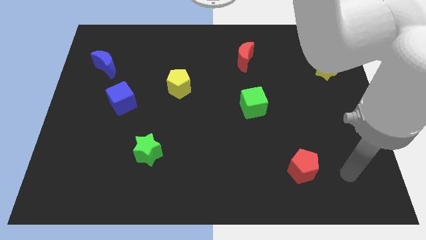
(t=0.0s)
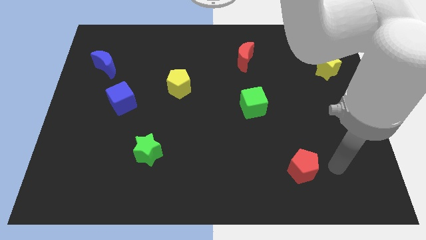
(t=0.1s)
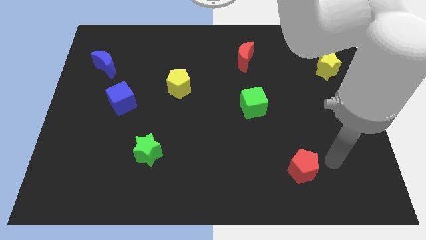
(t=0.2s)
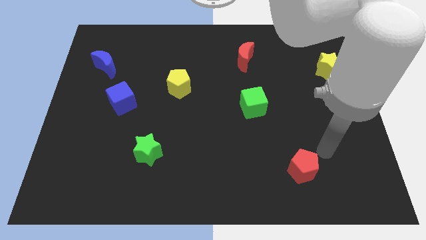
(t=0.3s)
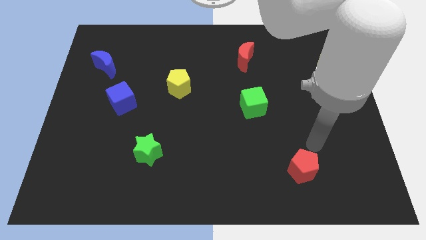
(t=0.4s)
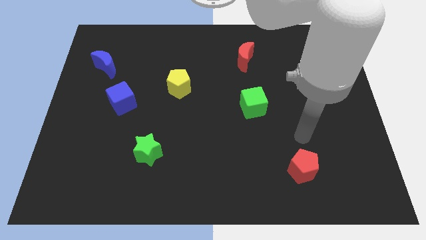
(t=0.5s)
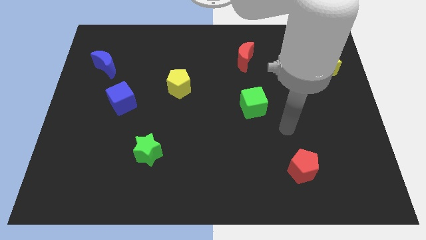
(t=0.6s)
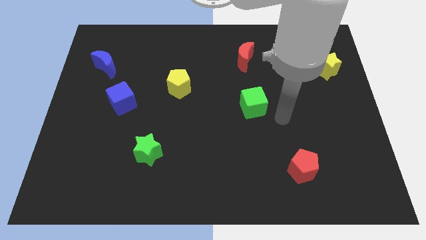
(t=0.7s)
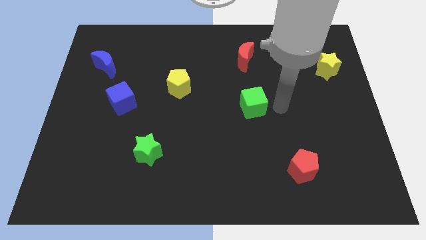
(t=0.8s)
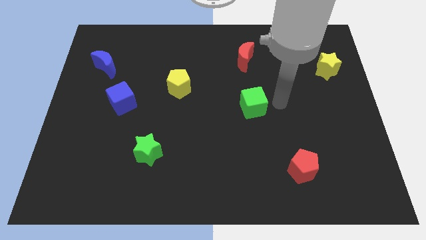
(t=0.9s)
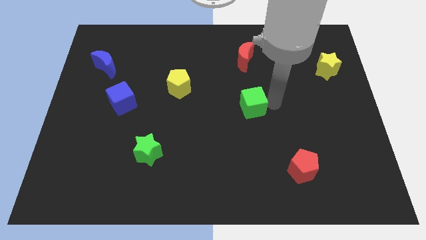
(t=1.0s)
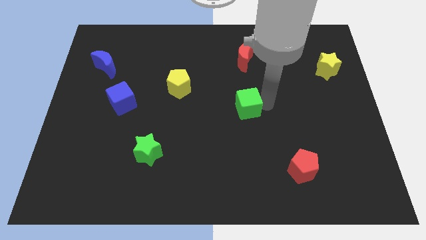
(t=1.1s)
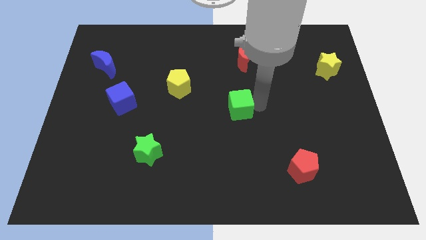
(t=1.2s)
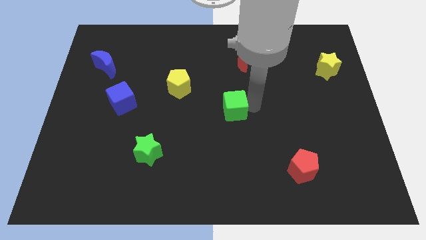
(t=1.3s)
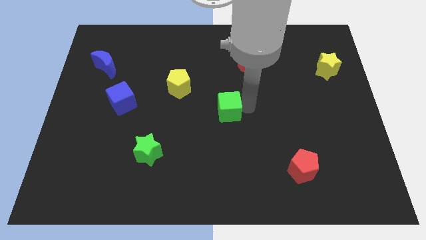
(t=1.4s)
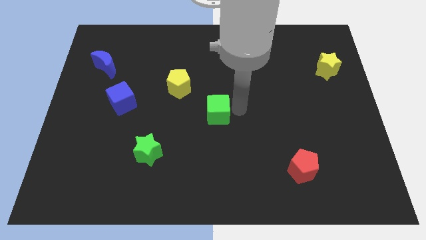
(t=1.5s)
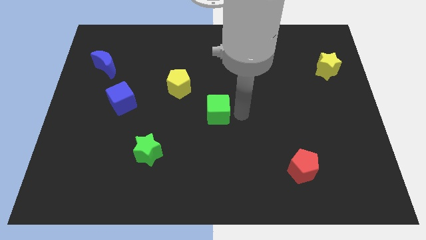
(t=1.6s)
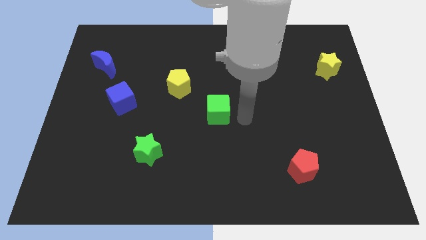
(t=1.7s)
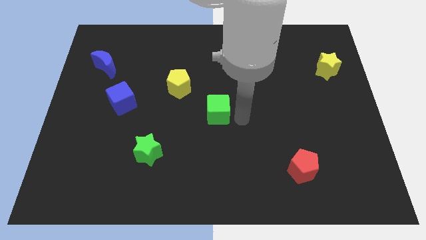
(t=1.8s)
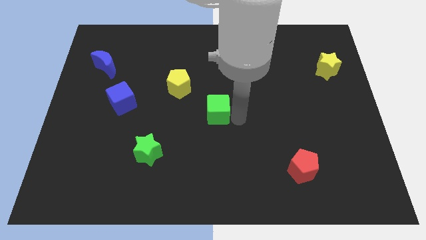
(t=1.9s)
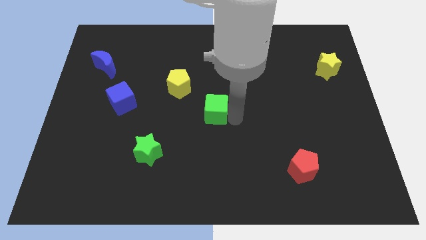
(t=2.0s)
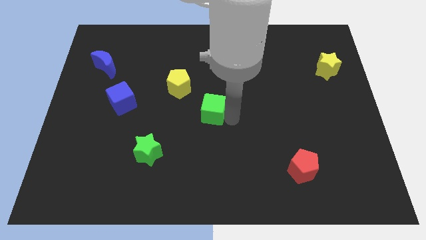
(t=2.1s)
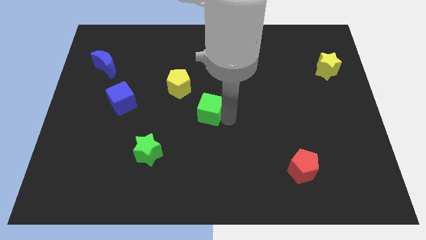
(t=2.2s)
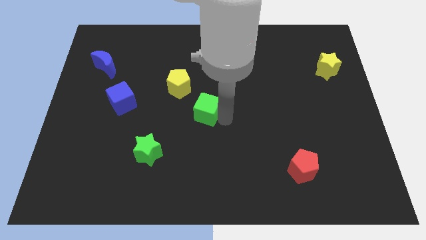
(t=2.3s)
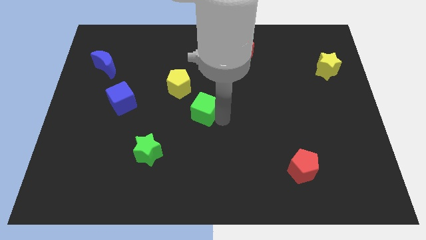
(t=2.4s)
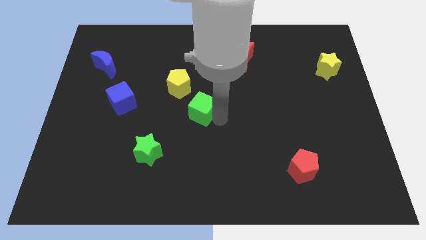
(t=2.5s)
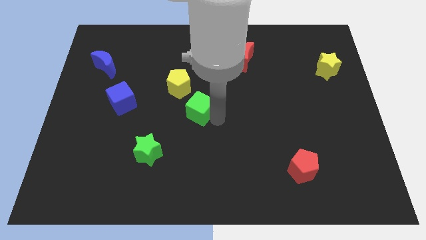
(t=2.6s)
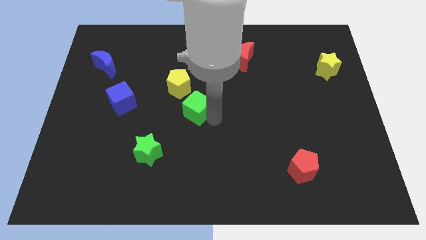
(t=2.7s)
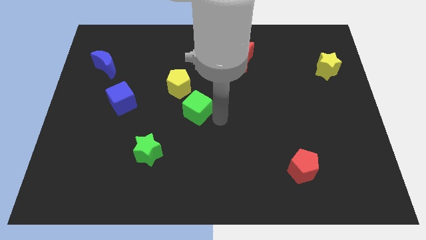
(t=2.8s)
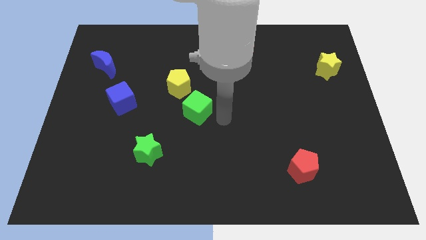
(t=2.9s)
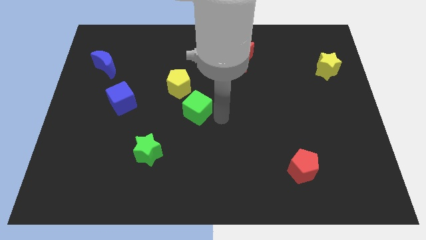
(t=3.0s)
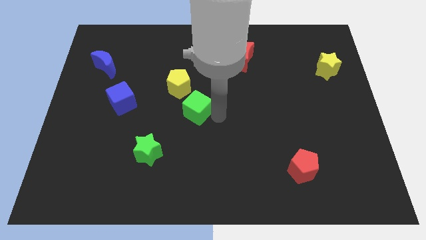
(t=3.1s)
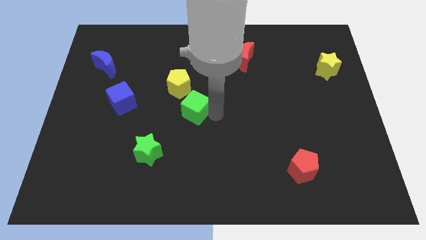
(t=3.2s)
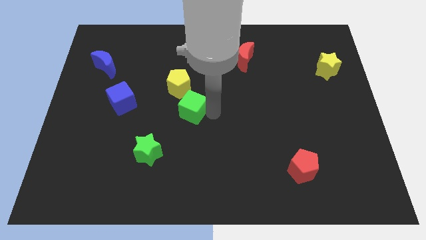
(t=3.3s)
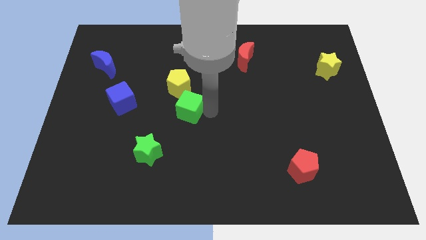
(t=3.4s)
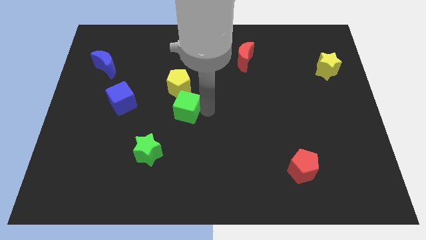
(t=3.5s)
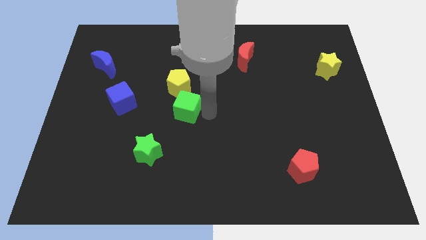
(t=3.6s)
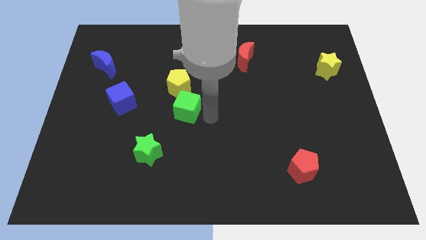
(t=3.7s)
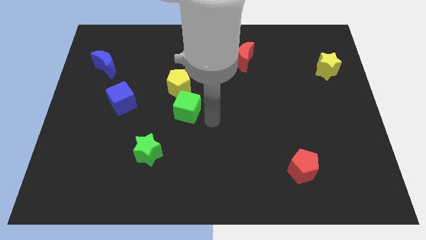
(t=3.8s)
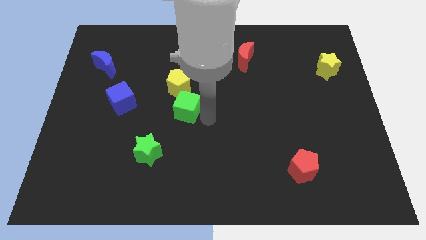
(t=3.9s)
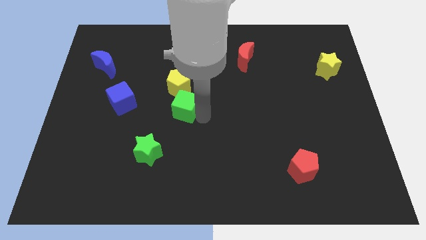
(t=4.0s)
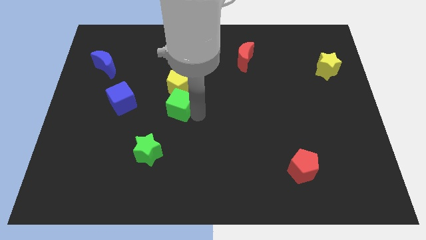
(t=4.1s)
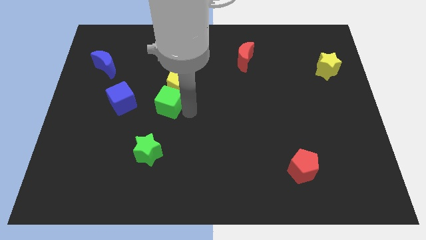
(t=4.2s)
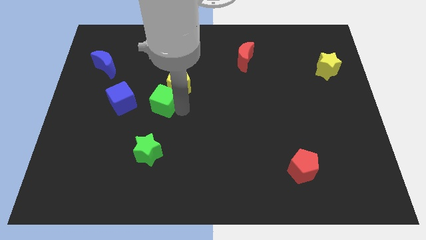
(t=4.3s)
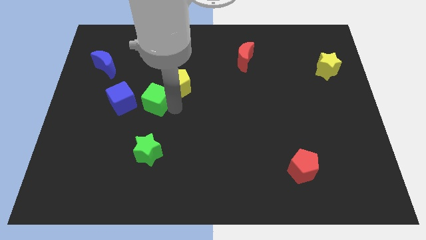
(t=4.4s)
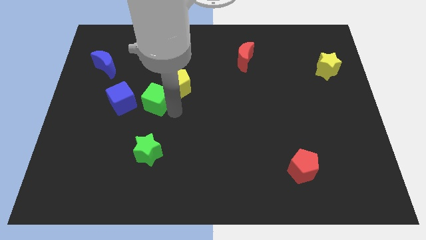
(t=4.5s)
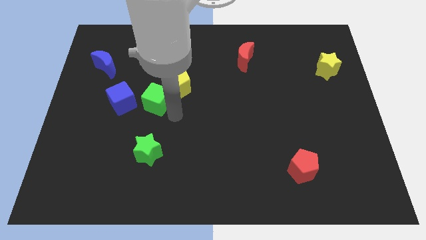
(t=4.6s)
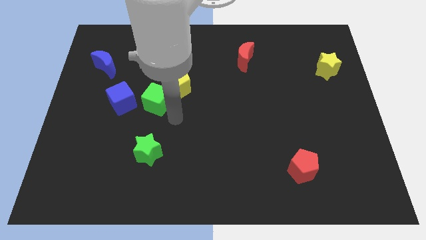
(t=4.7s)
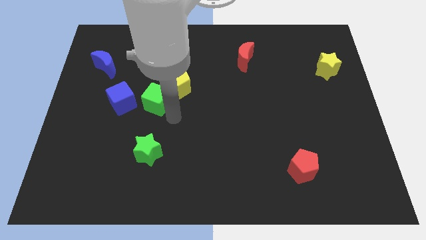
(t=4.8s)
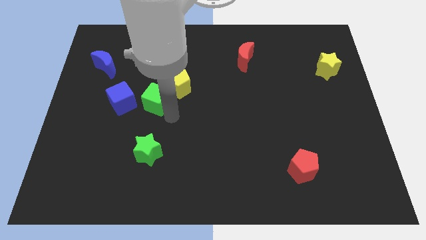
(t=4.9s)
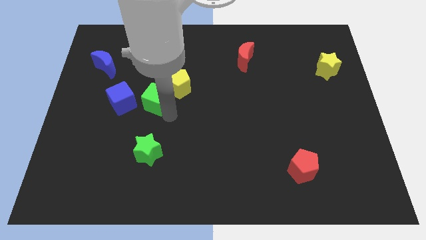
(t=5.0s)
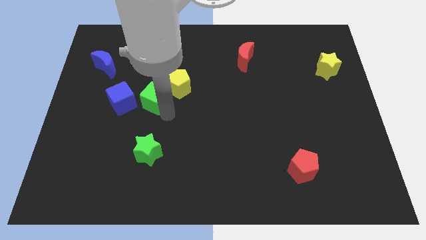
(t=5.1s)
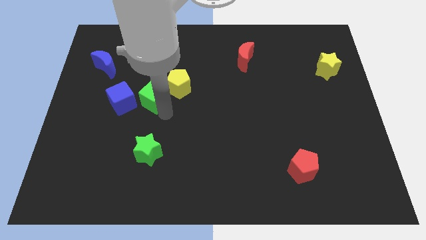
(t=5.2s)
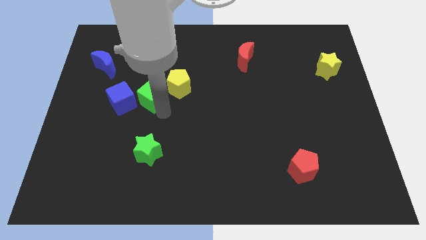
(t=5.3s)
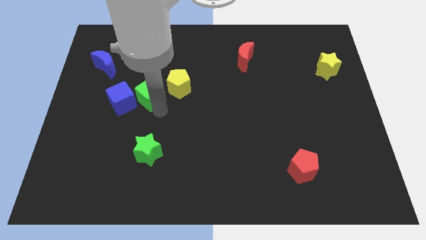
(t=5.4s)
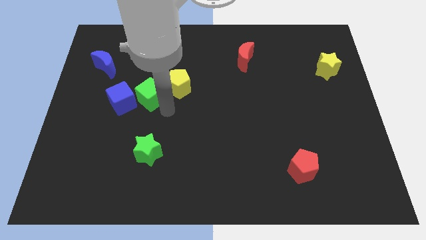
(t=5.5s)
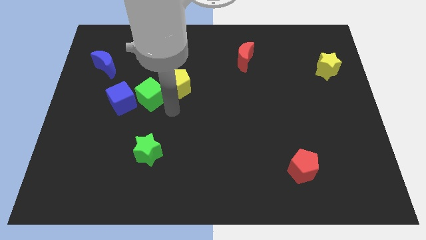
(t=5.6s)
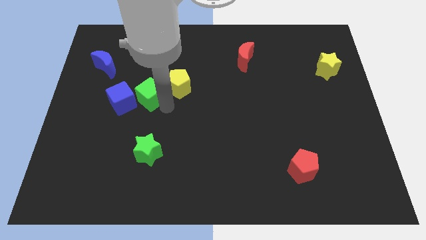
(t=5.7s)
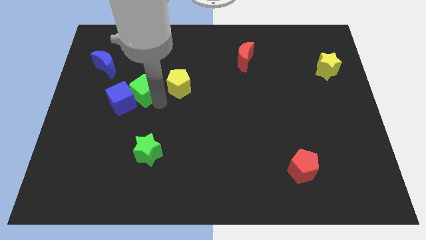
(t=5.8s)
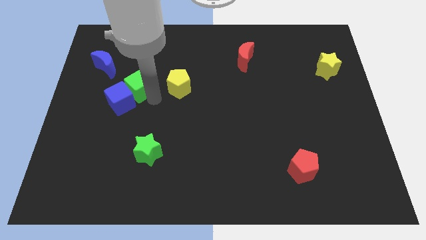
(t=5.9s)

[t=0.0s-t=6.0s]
push the green cube diagonally down and to the right of the blue moon

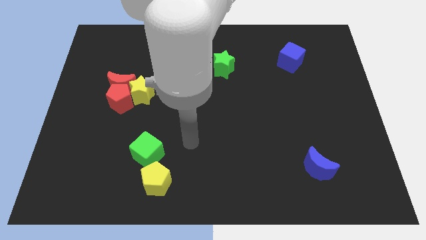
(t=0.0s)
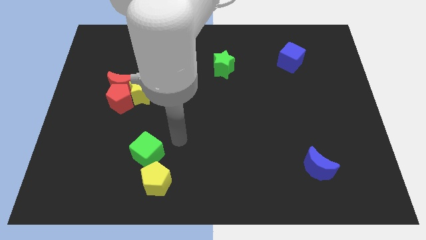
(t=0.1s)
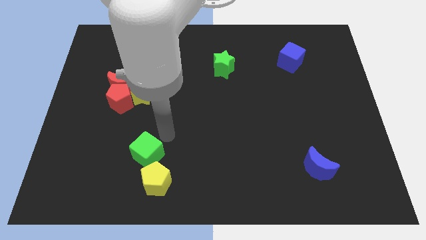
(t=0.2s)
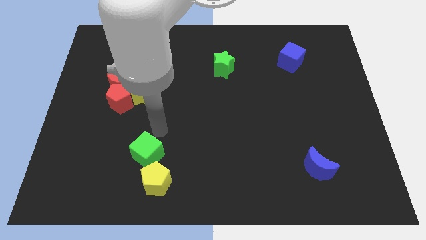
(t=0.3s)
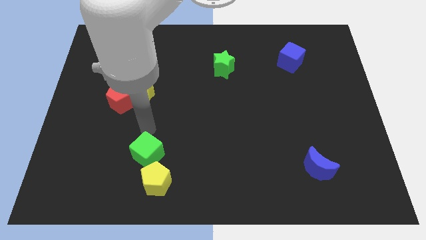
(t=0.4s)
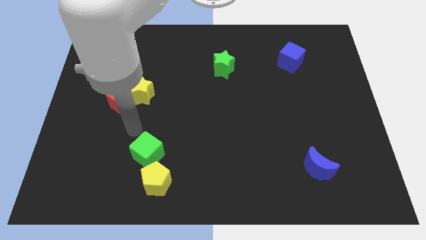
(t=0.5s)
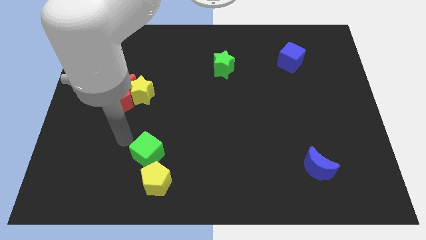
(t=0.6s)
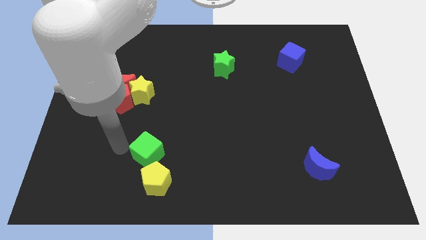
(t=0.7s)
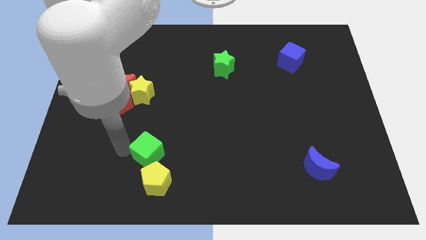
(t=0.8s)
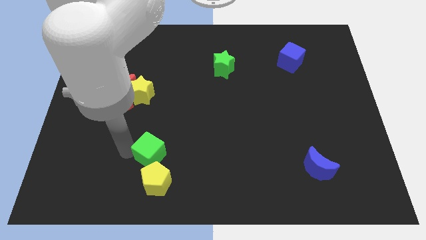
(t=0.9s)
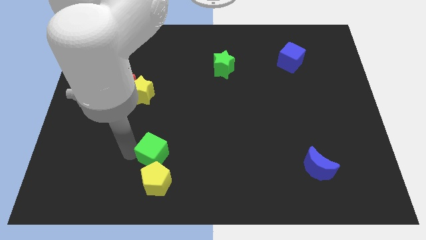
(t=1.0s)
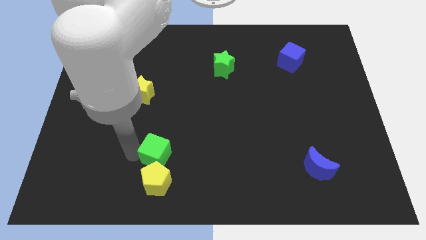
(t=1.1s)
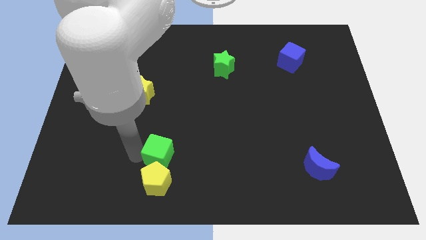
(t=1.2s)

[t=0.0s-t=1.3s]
slide the green cube to the top right side of the yellow pentagon
